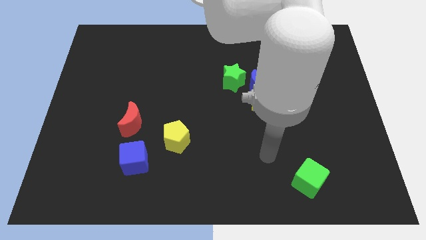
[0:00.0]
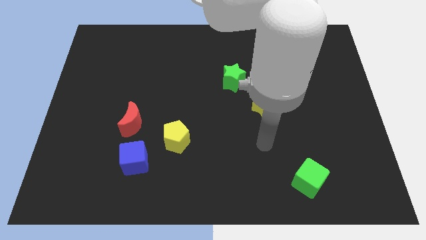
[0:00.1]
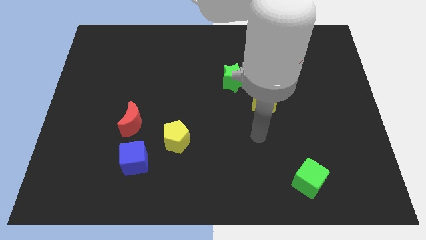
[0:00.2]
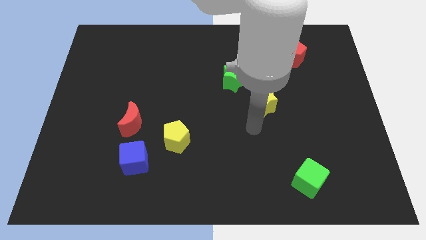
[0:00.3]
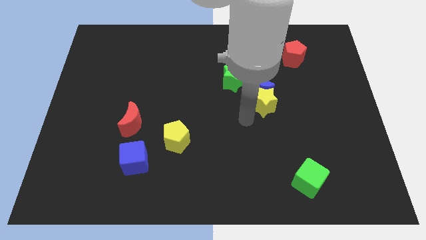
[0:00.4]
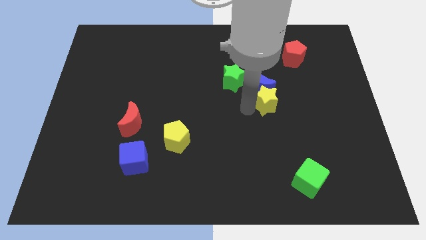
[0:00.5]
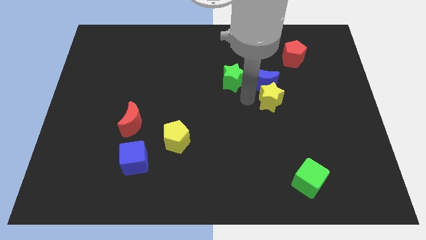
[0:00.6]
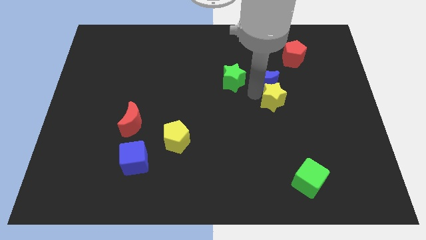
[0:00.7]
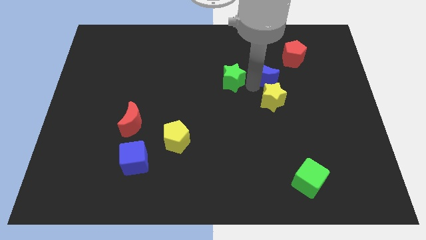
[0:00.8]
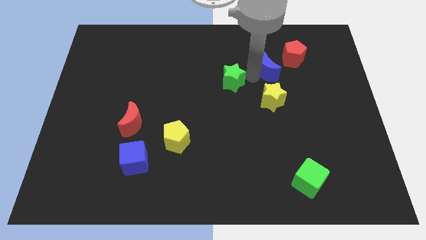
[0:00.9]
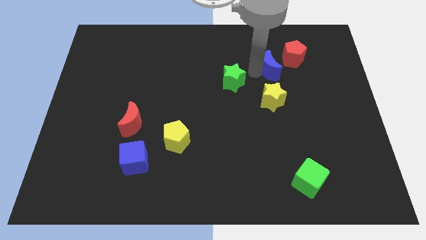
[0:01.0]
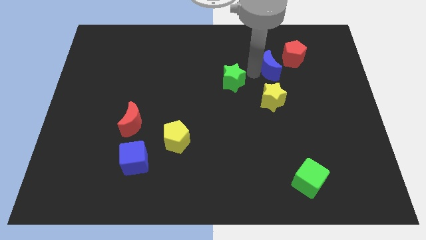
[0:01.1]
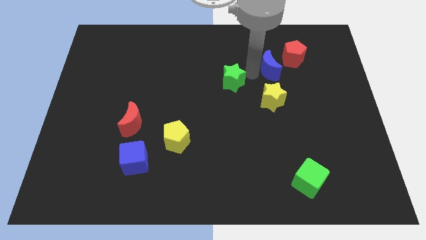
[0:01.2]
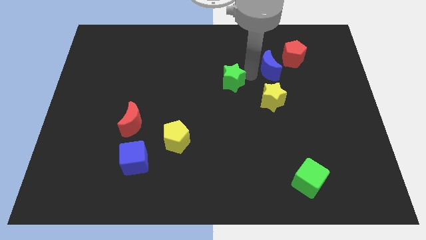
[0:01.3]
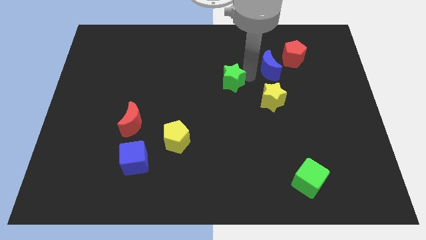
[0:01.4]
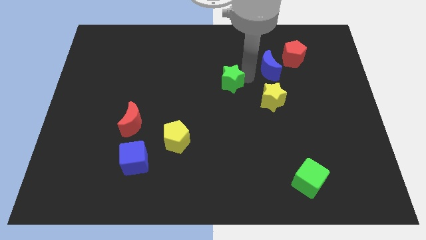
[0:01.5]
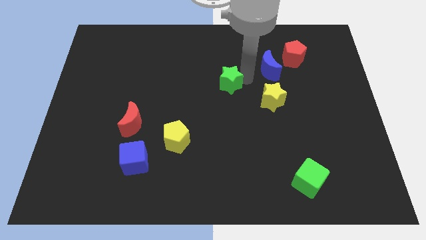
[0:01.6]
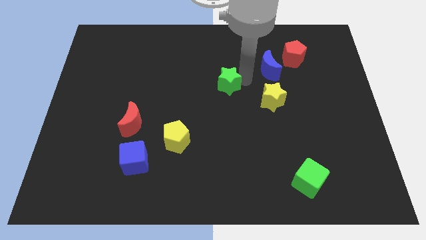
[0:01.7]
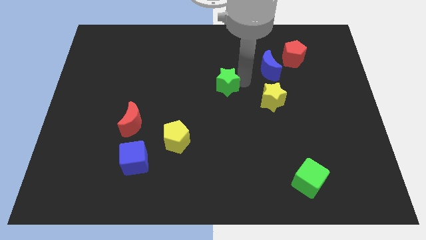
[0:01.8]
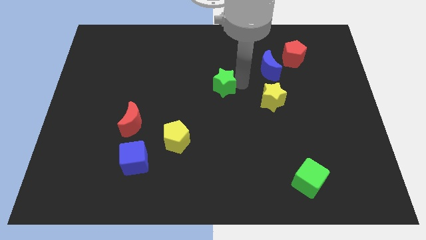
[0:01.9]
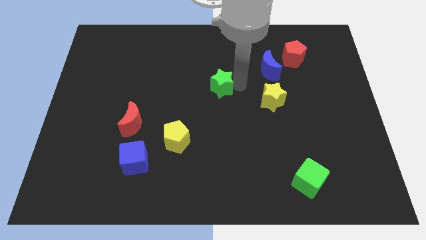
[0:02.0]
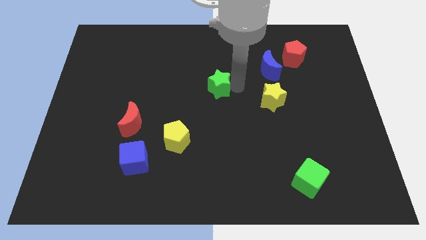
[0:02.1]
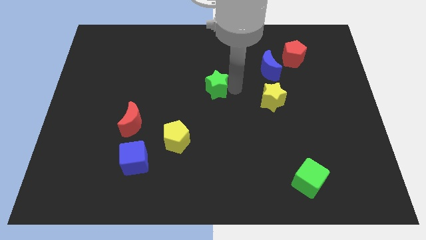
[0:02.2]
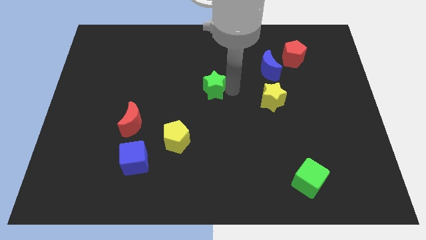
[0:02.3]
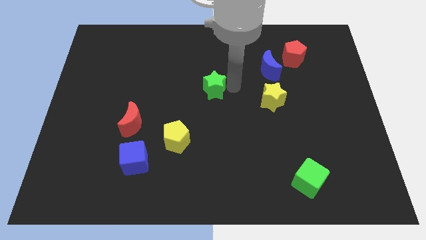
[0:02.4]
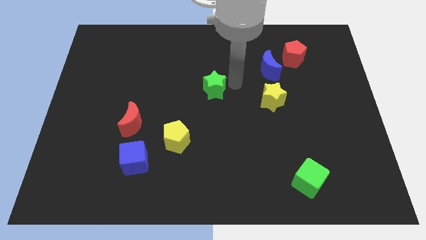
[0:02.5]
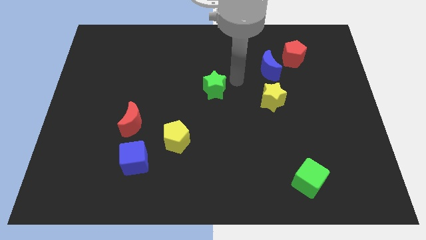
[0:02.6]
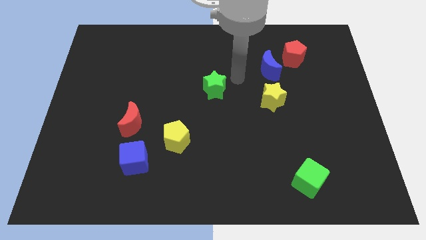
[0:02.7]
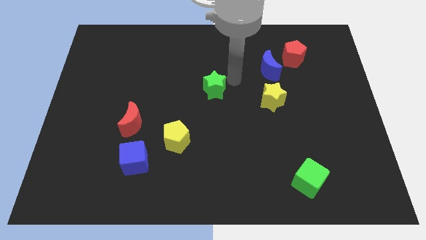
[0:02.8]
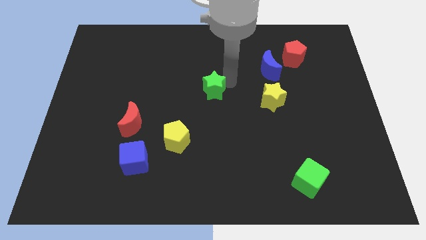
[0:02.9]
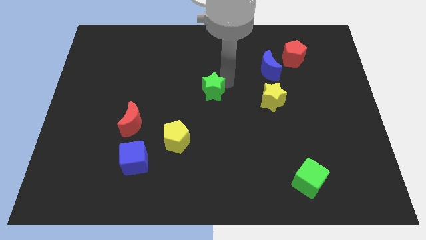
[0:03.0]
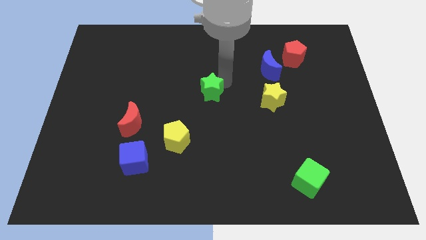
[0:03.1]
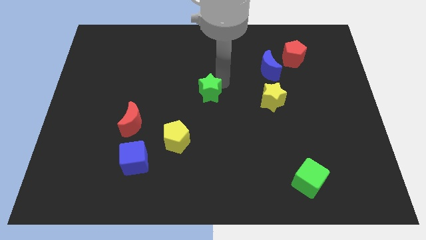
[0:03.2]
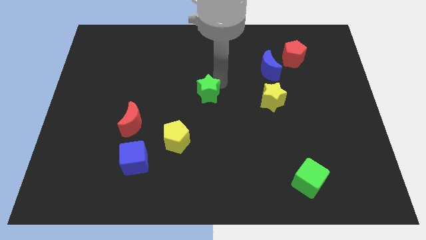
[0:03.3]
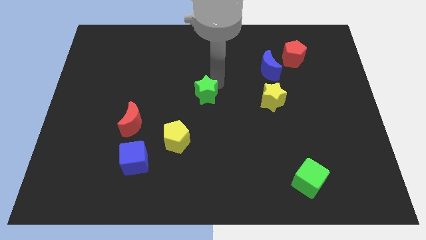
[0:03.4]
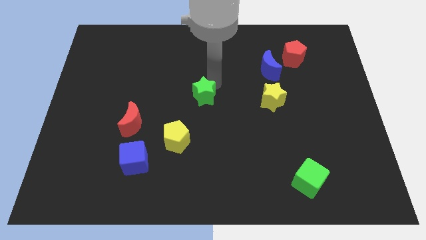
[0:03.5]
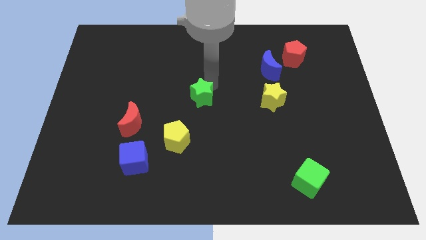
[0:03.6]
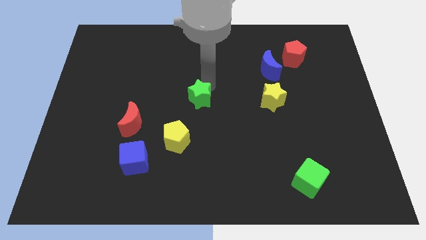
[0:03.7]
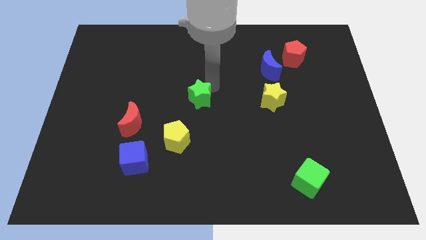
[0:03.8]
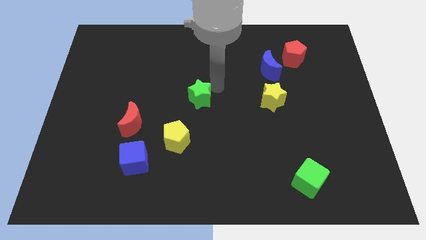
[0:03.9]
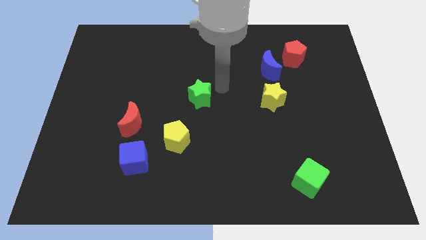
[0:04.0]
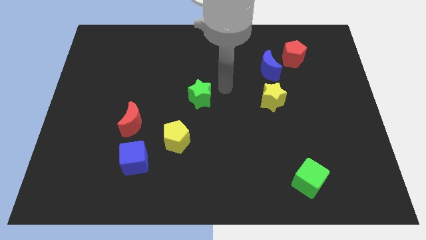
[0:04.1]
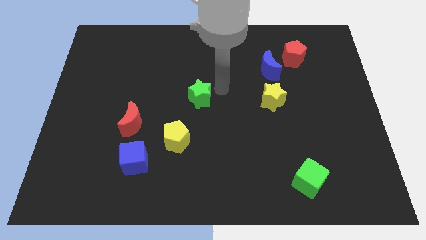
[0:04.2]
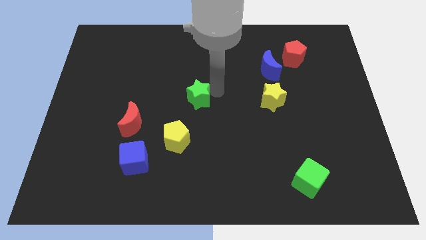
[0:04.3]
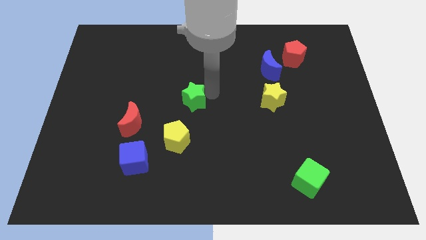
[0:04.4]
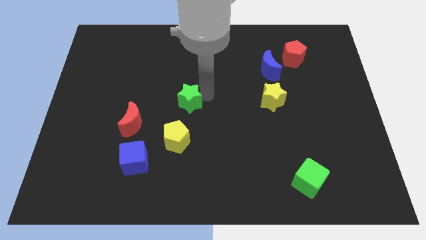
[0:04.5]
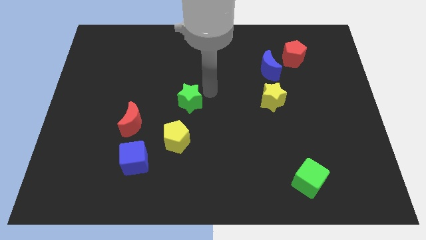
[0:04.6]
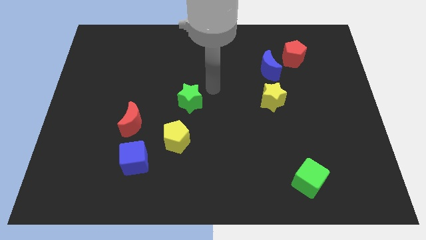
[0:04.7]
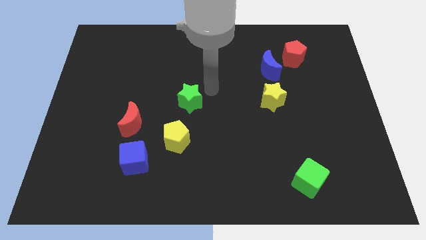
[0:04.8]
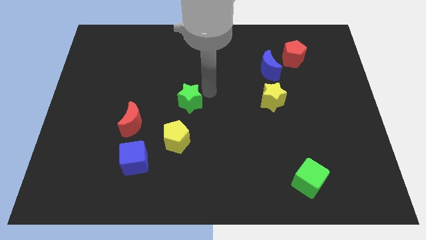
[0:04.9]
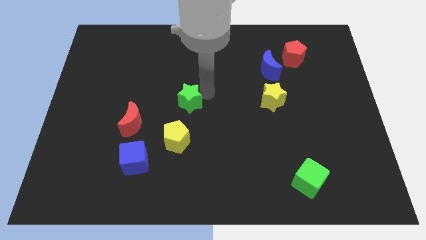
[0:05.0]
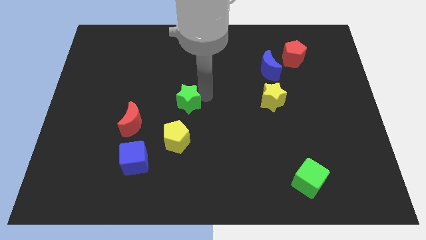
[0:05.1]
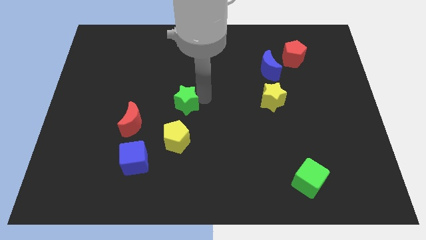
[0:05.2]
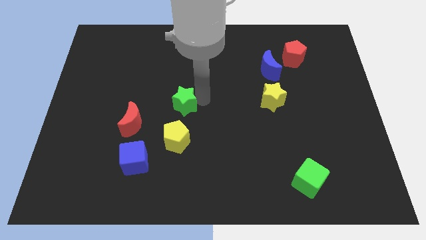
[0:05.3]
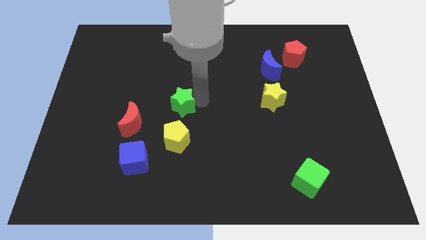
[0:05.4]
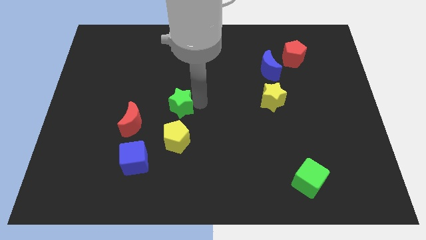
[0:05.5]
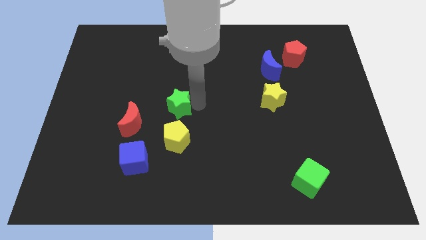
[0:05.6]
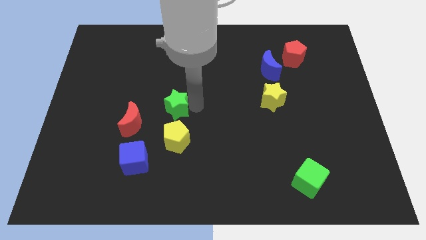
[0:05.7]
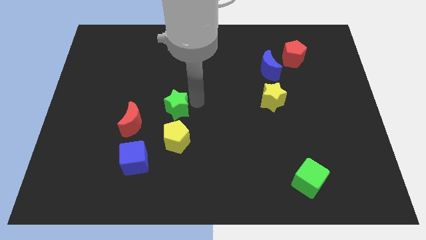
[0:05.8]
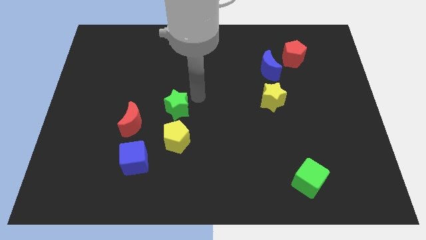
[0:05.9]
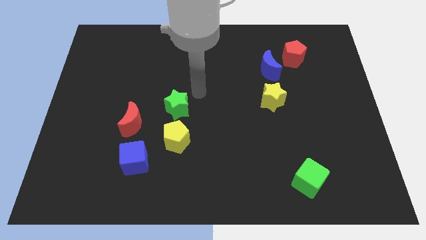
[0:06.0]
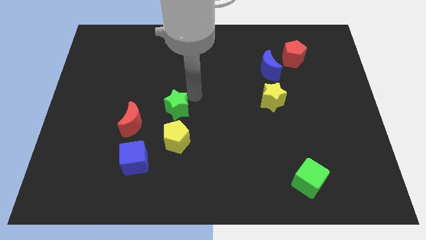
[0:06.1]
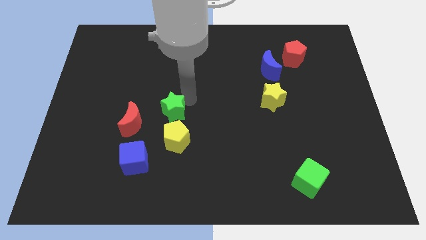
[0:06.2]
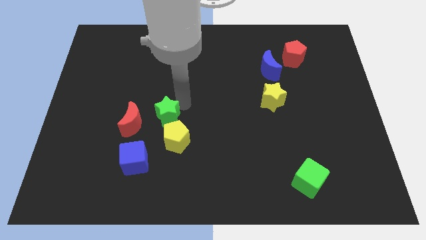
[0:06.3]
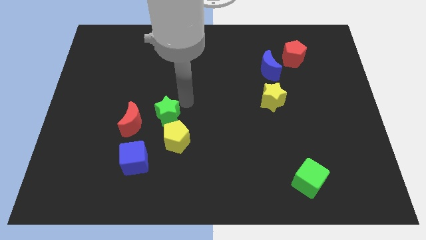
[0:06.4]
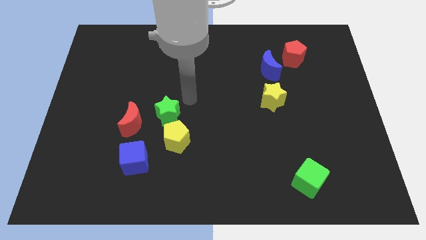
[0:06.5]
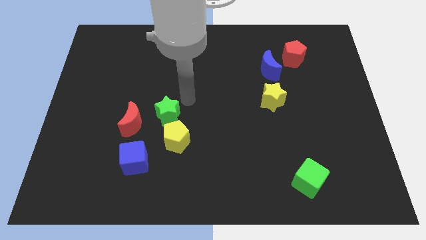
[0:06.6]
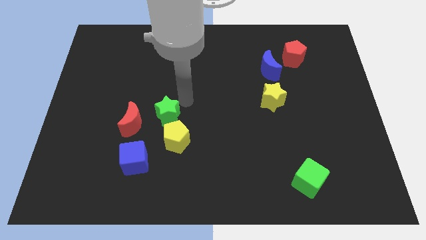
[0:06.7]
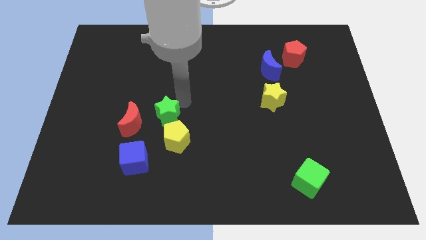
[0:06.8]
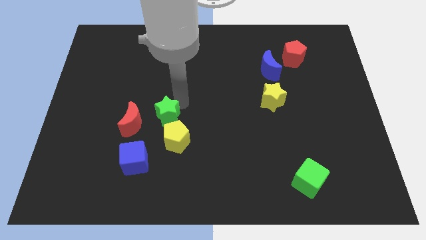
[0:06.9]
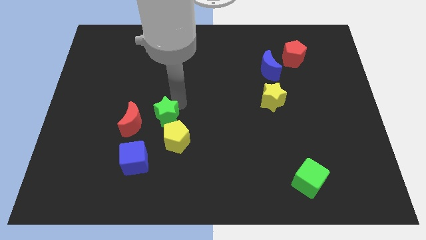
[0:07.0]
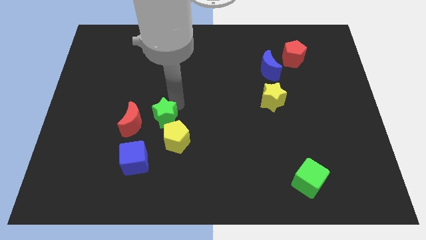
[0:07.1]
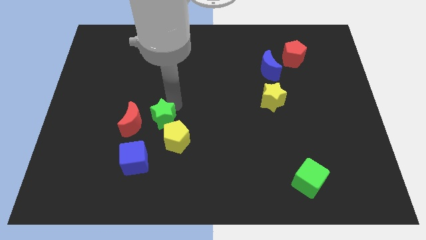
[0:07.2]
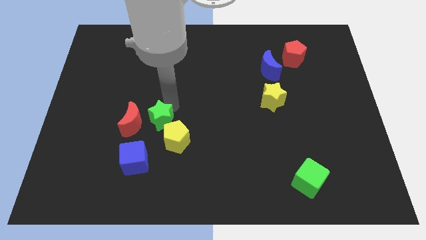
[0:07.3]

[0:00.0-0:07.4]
slide the green star to the top side of the blue cube
